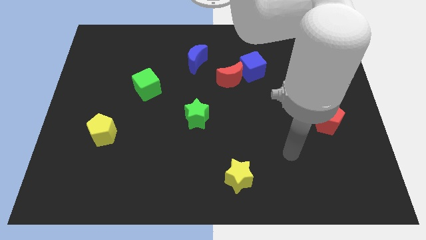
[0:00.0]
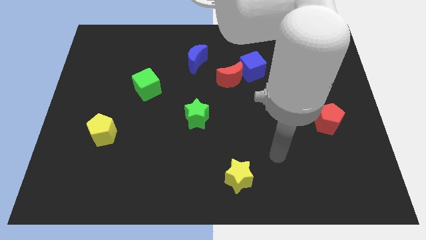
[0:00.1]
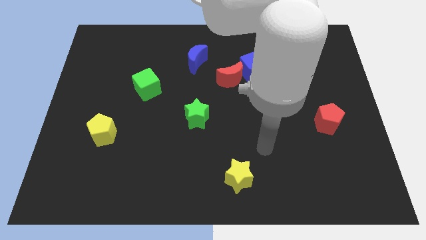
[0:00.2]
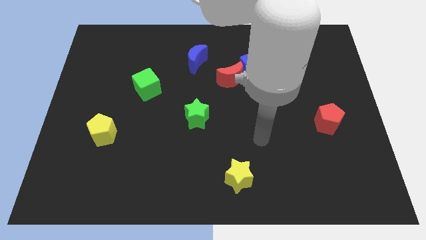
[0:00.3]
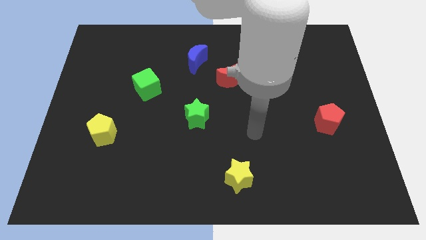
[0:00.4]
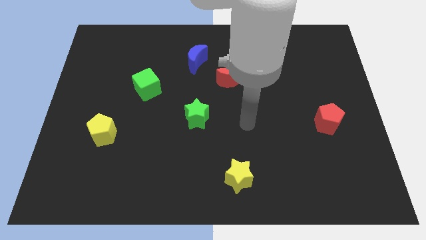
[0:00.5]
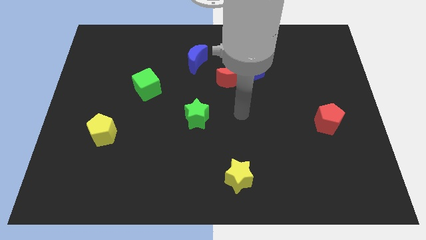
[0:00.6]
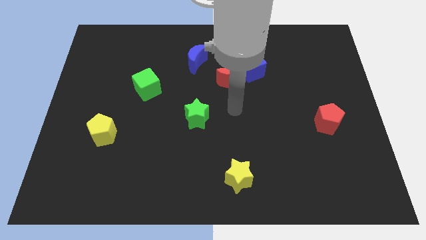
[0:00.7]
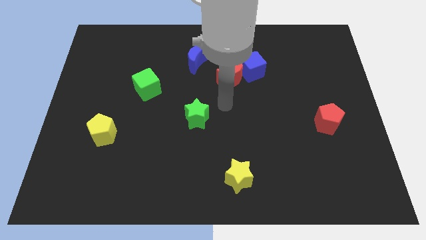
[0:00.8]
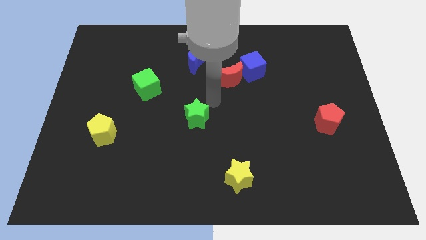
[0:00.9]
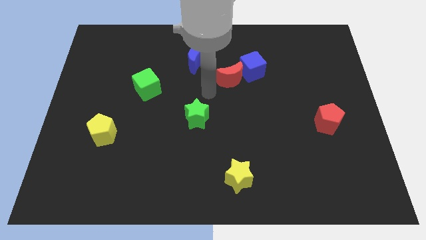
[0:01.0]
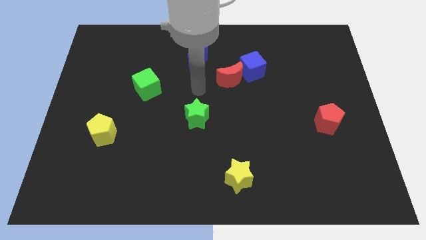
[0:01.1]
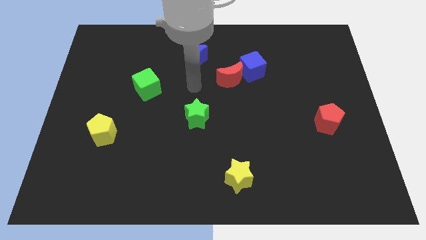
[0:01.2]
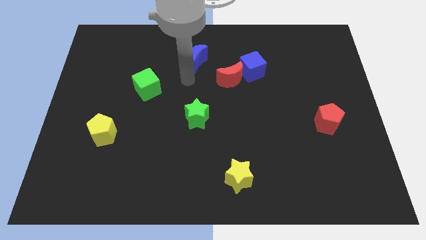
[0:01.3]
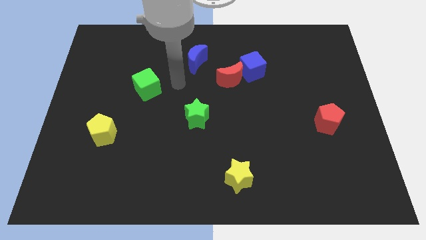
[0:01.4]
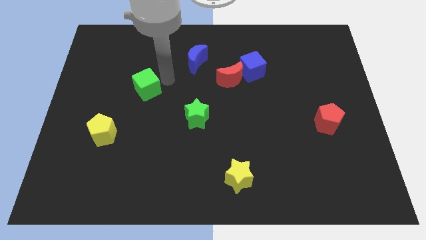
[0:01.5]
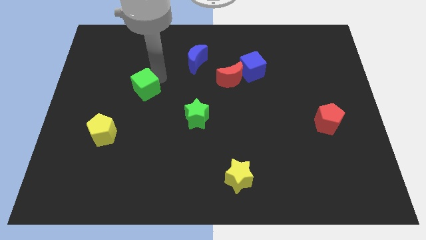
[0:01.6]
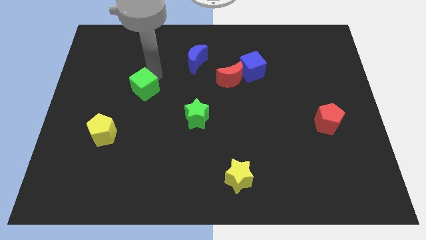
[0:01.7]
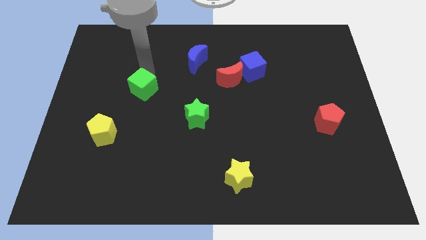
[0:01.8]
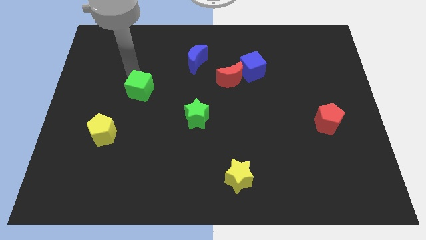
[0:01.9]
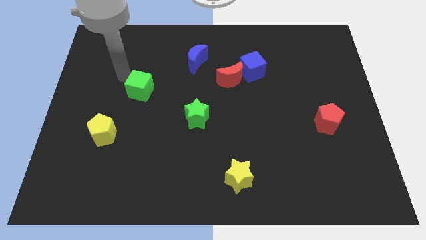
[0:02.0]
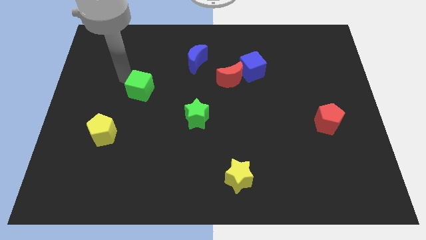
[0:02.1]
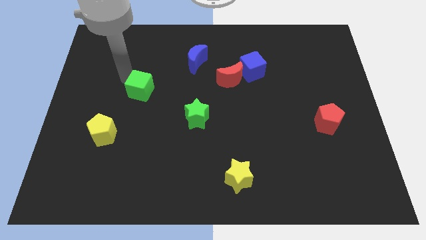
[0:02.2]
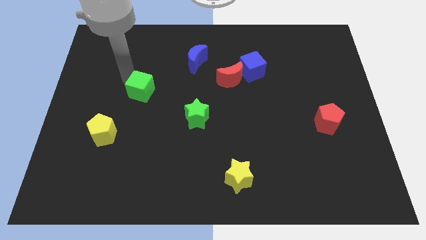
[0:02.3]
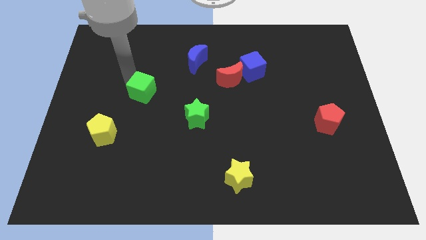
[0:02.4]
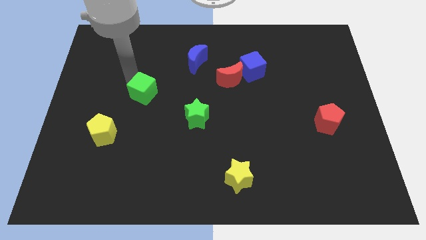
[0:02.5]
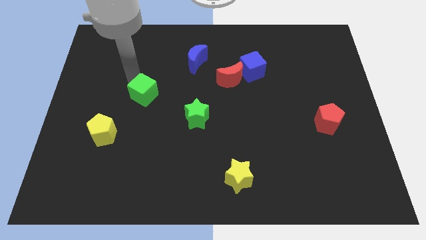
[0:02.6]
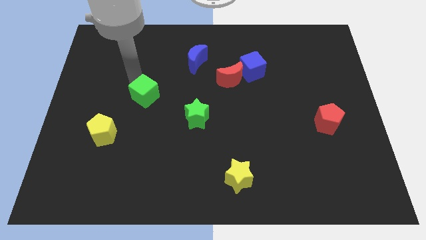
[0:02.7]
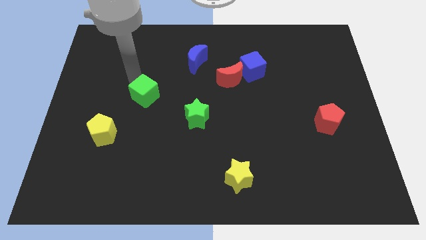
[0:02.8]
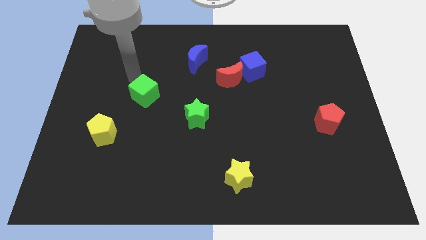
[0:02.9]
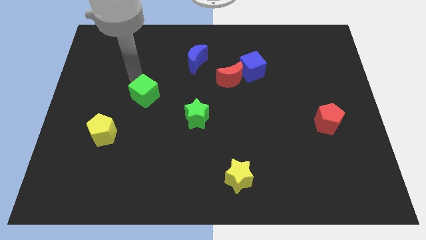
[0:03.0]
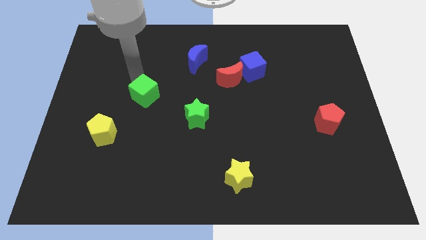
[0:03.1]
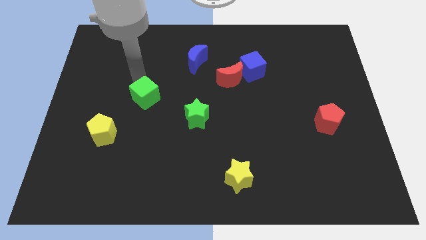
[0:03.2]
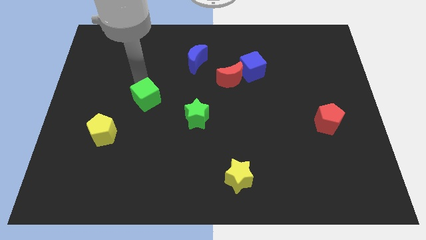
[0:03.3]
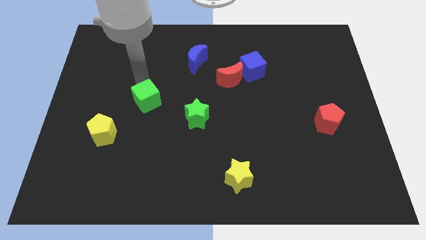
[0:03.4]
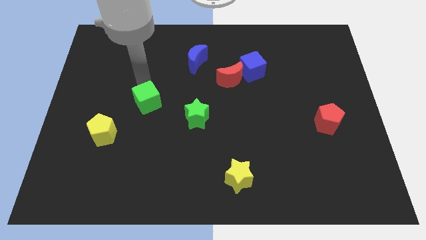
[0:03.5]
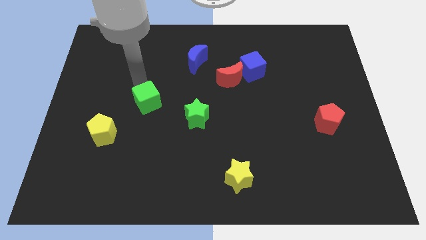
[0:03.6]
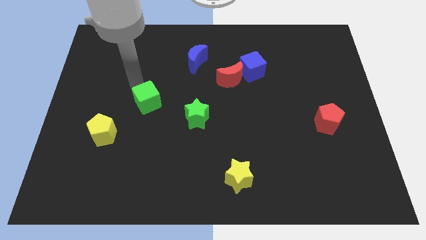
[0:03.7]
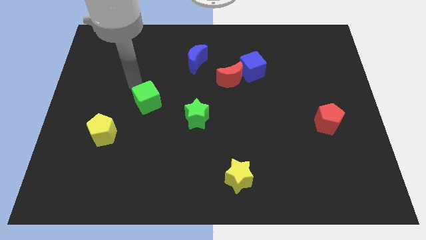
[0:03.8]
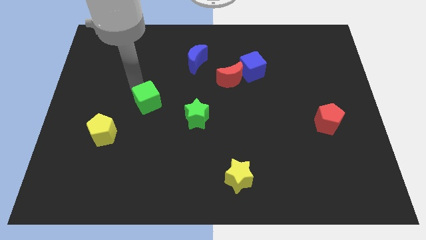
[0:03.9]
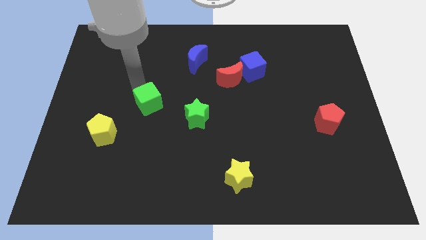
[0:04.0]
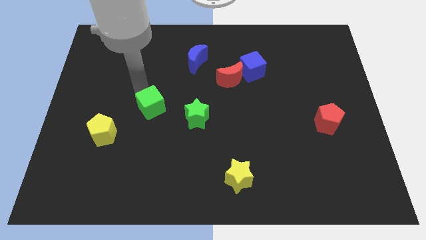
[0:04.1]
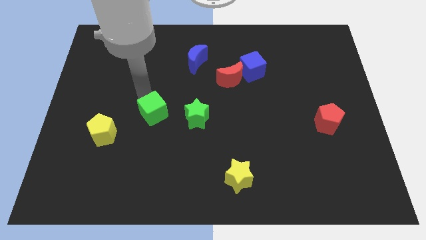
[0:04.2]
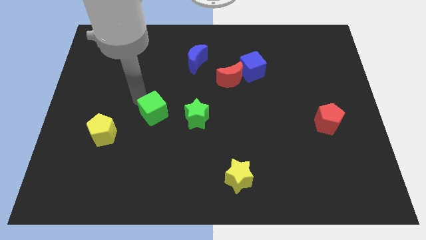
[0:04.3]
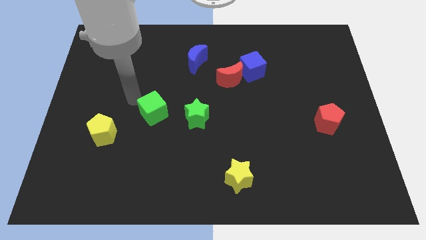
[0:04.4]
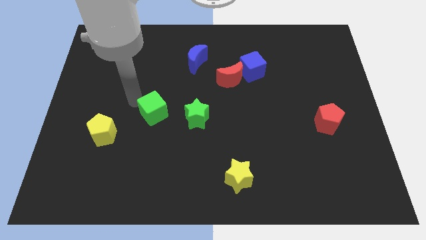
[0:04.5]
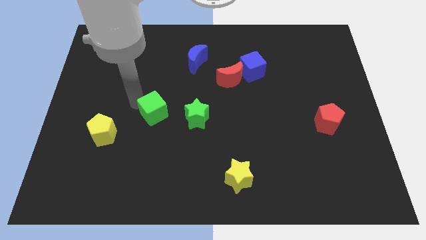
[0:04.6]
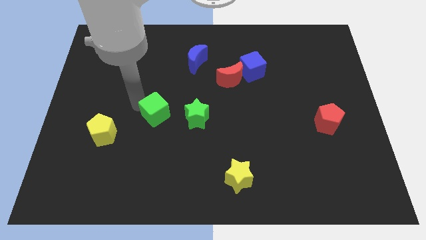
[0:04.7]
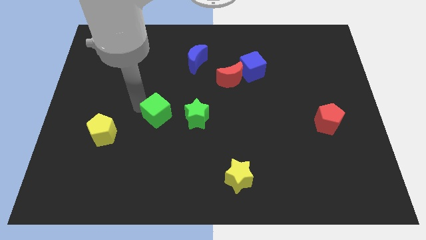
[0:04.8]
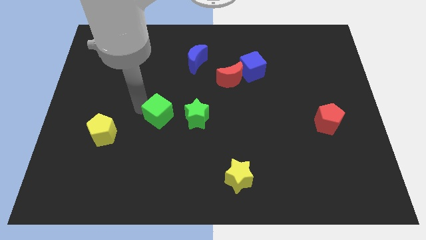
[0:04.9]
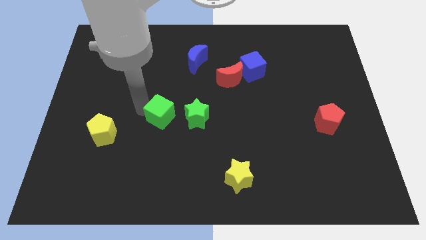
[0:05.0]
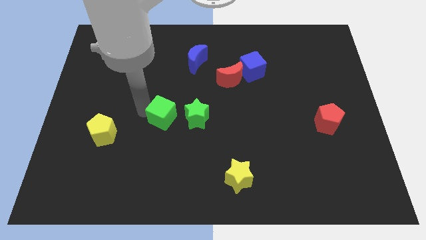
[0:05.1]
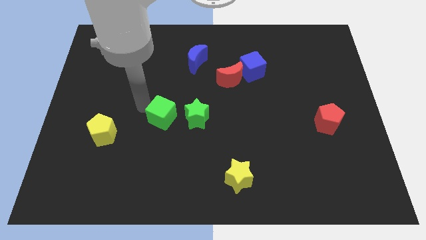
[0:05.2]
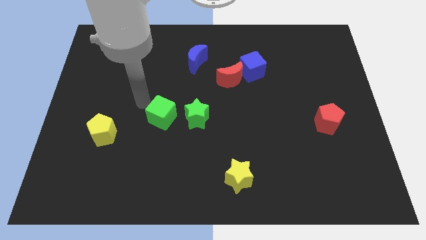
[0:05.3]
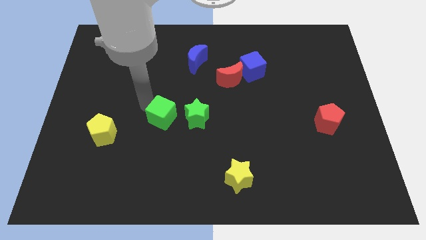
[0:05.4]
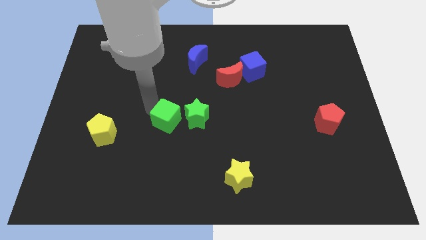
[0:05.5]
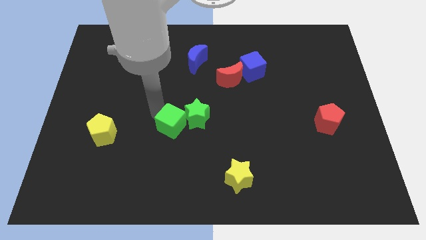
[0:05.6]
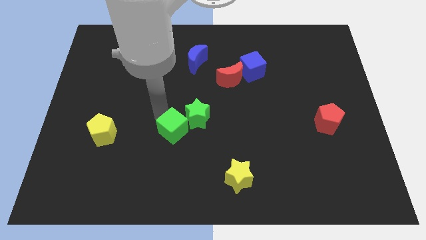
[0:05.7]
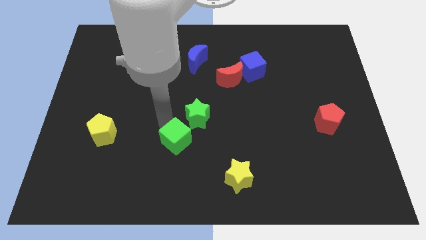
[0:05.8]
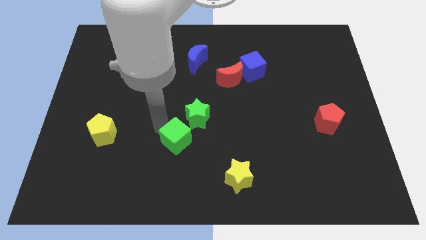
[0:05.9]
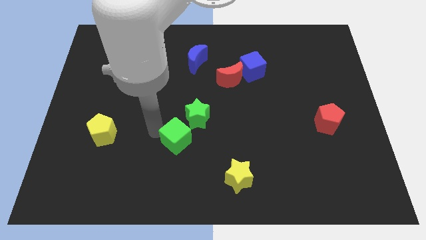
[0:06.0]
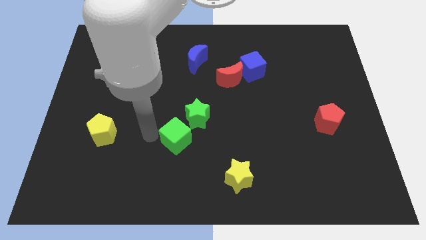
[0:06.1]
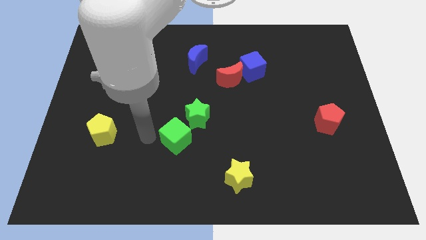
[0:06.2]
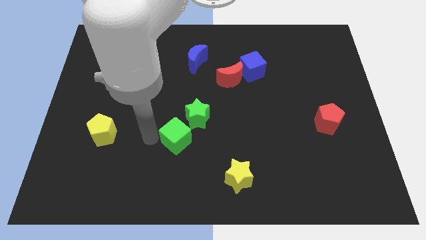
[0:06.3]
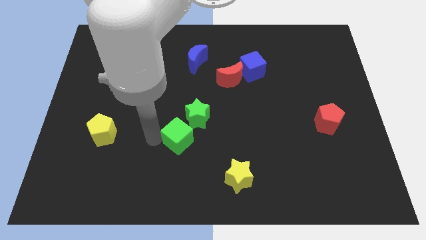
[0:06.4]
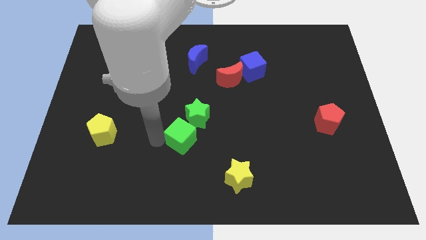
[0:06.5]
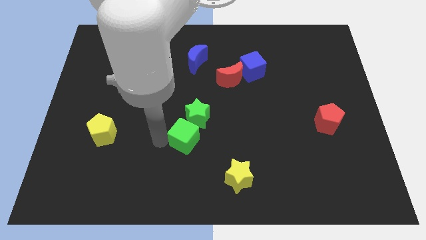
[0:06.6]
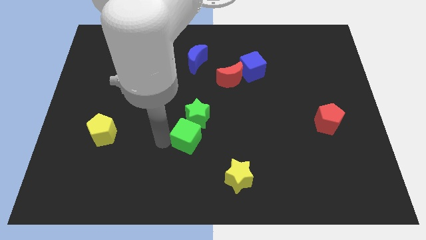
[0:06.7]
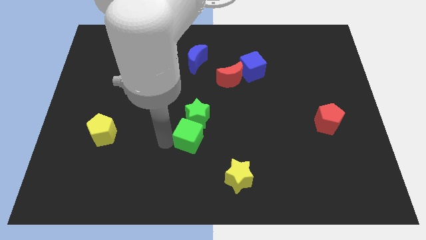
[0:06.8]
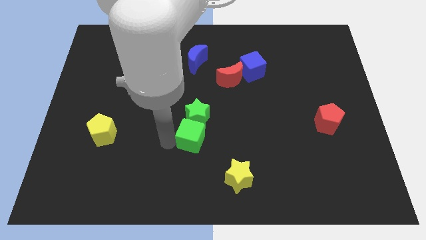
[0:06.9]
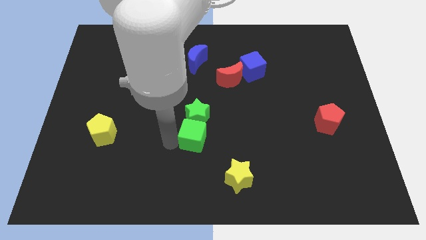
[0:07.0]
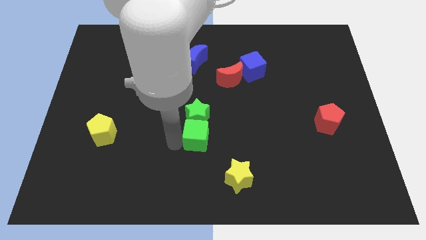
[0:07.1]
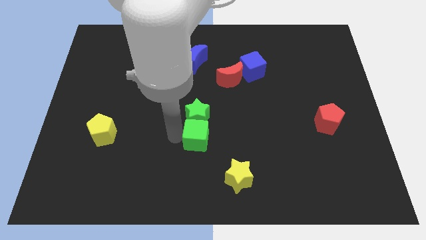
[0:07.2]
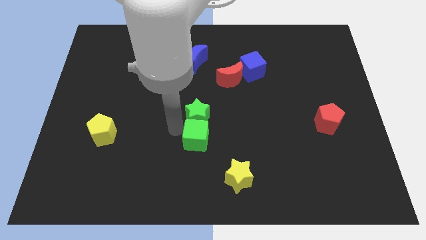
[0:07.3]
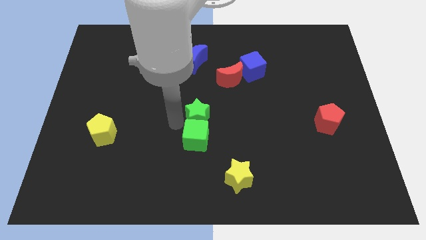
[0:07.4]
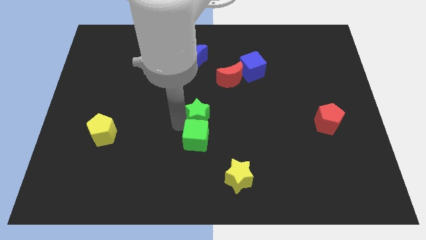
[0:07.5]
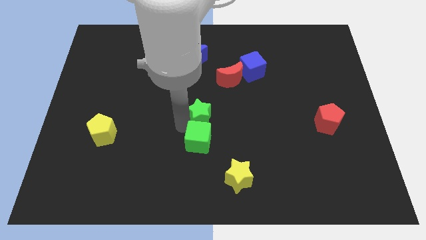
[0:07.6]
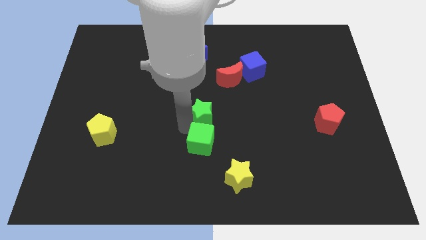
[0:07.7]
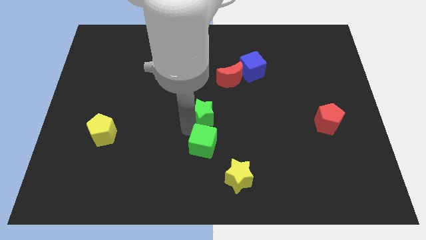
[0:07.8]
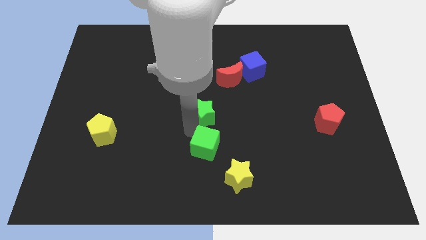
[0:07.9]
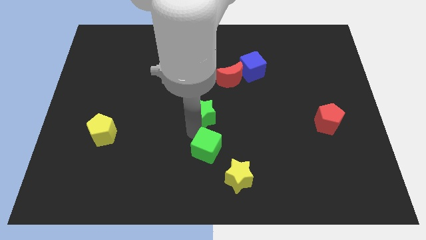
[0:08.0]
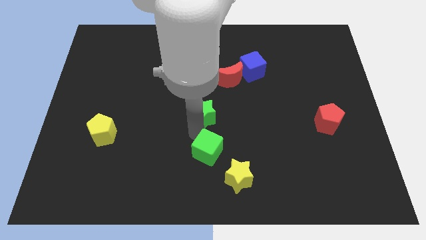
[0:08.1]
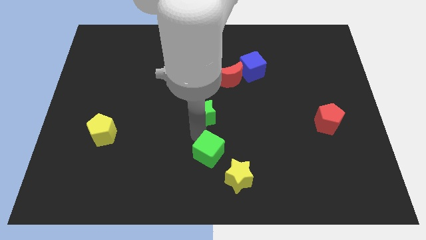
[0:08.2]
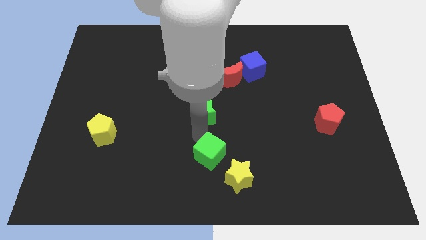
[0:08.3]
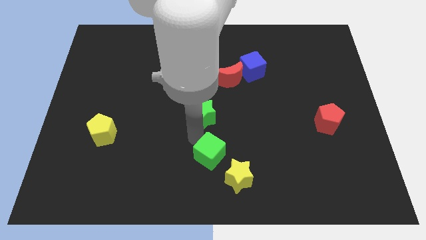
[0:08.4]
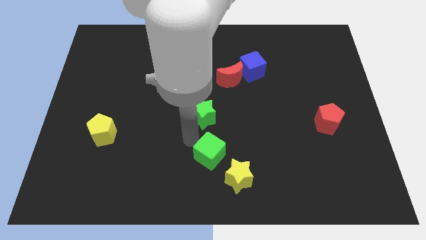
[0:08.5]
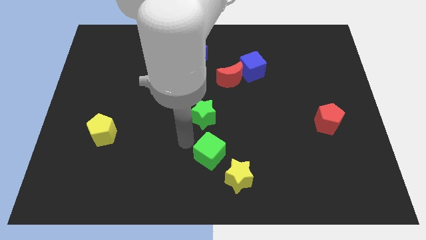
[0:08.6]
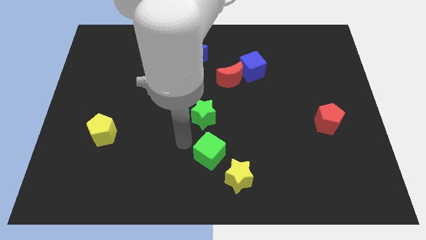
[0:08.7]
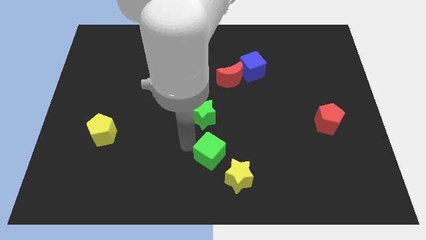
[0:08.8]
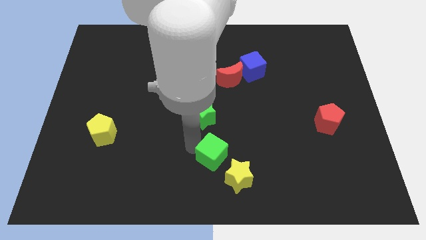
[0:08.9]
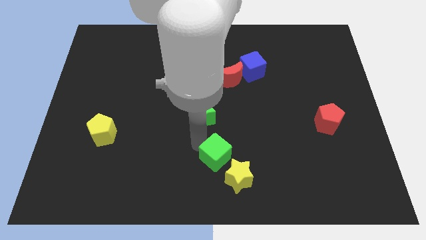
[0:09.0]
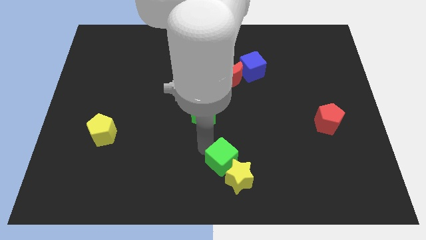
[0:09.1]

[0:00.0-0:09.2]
put the green cube to the yellow star
